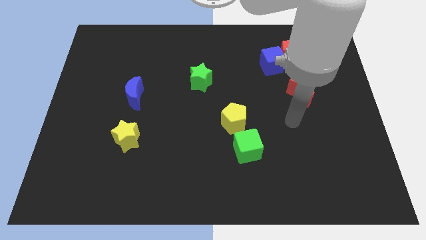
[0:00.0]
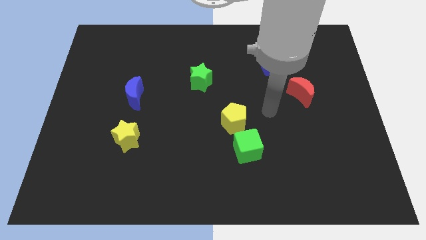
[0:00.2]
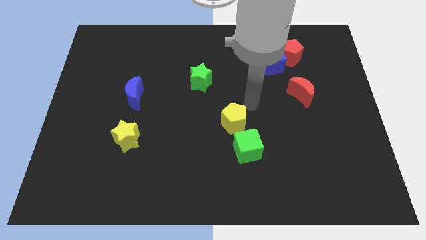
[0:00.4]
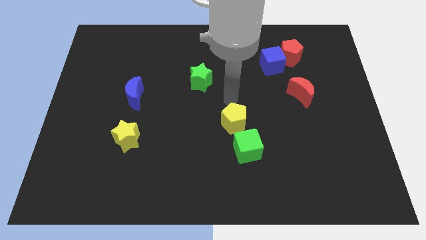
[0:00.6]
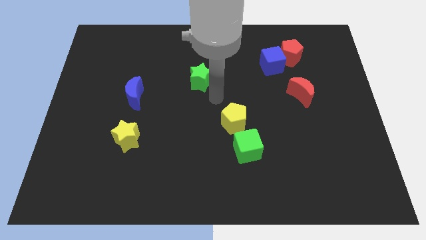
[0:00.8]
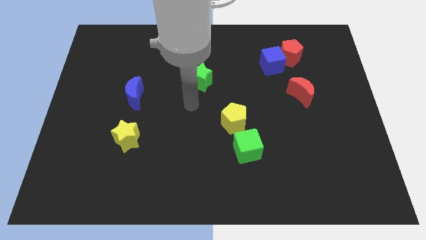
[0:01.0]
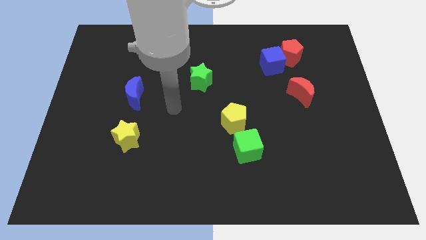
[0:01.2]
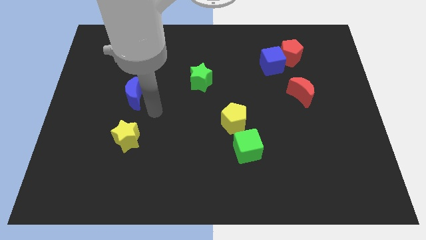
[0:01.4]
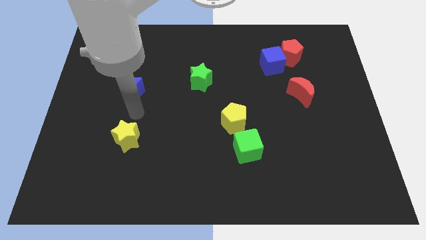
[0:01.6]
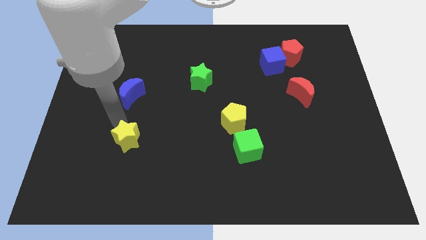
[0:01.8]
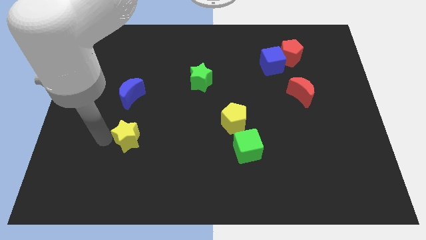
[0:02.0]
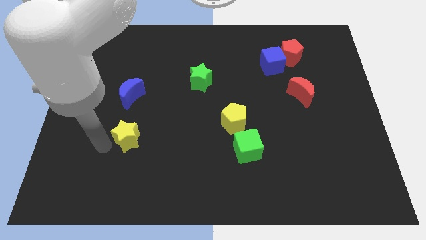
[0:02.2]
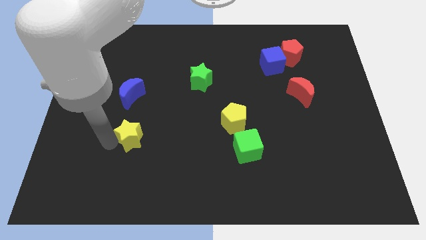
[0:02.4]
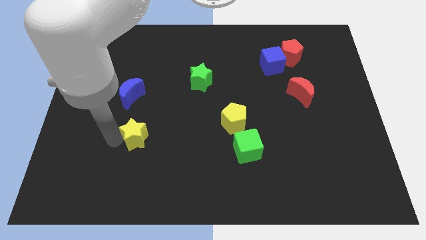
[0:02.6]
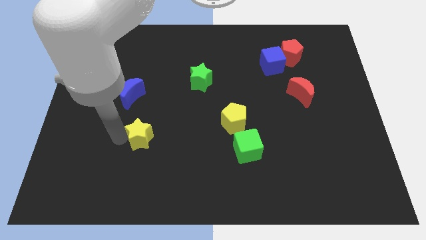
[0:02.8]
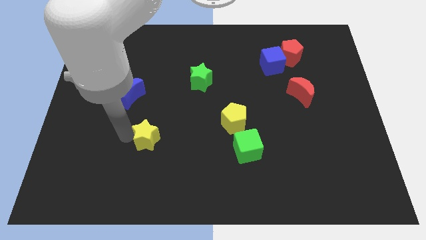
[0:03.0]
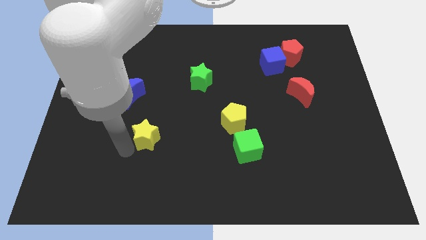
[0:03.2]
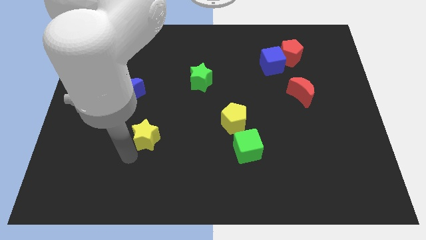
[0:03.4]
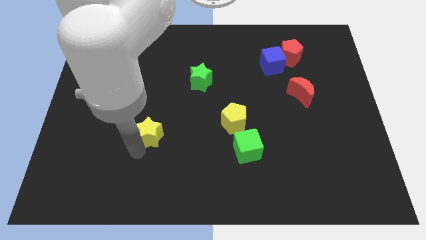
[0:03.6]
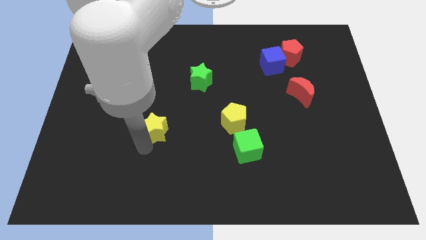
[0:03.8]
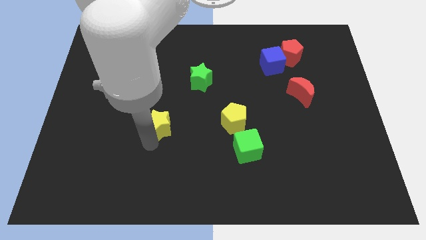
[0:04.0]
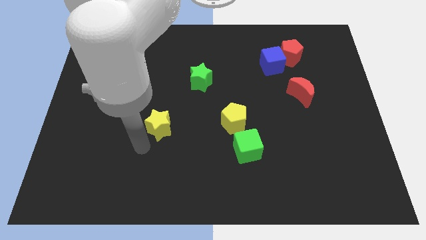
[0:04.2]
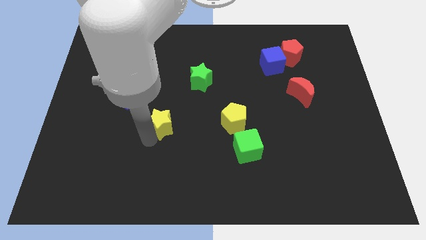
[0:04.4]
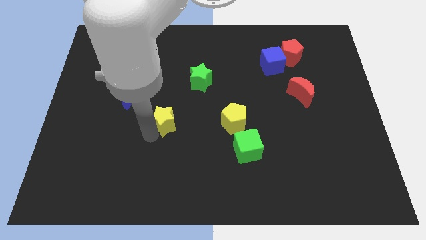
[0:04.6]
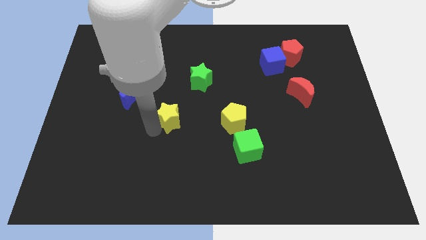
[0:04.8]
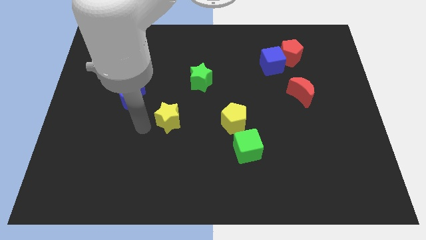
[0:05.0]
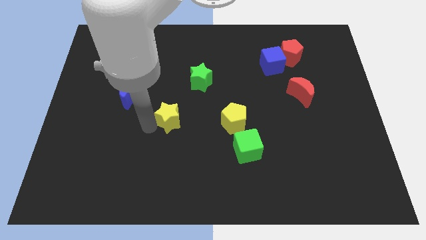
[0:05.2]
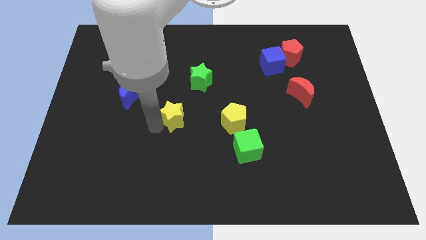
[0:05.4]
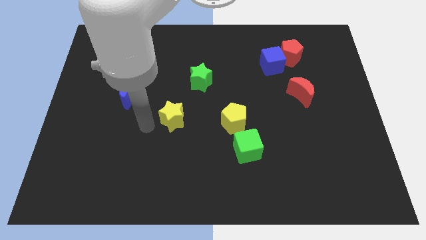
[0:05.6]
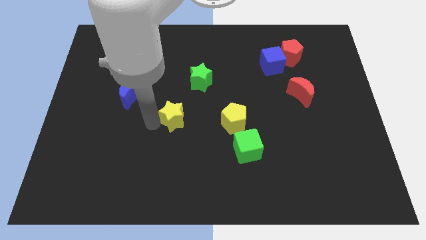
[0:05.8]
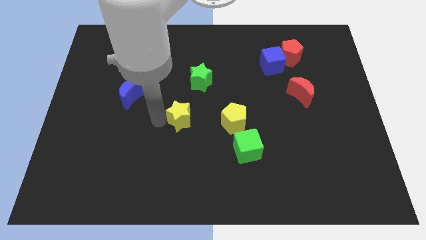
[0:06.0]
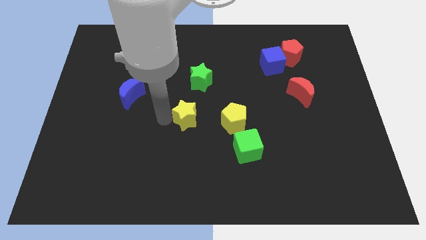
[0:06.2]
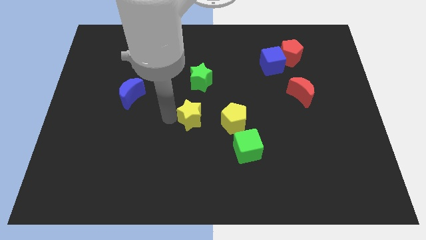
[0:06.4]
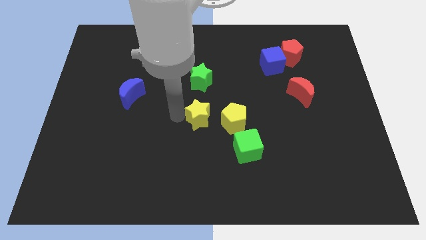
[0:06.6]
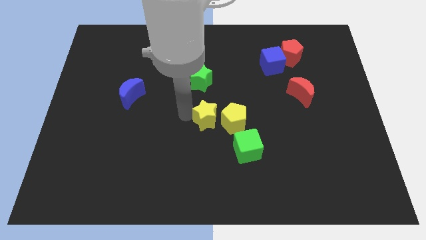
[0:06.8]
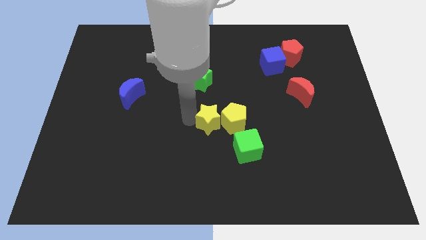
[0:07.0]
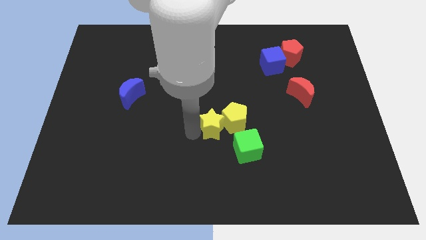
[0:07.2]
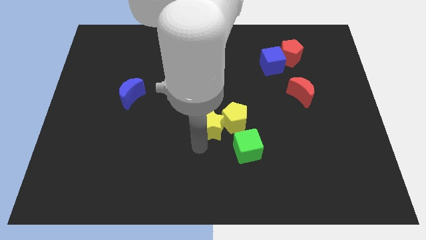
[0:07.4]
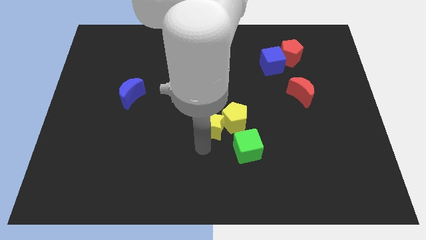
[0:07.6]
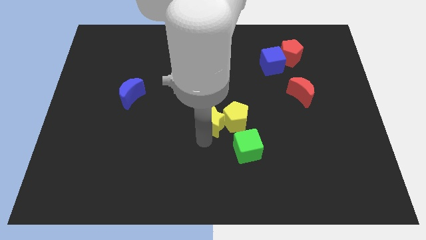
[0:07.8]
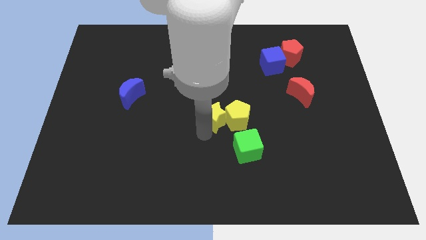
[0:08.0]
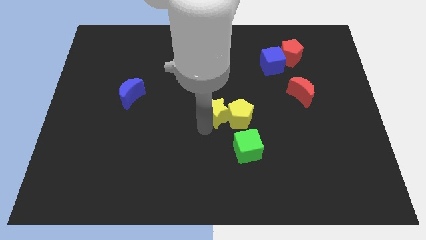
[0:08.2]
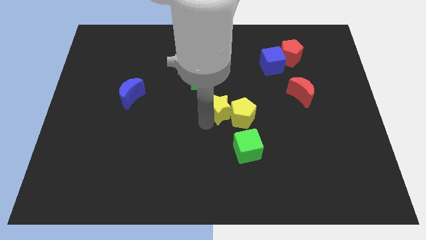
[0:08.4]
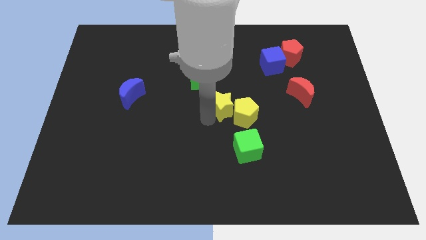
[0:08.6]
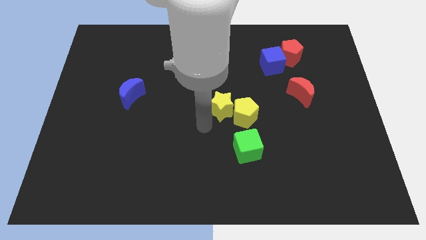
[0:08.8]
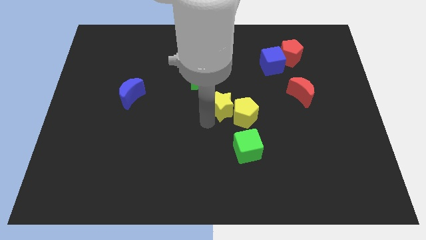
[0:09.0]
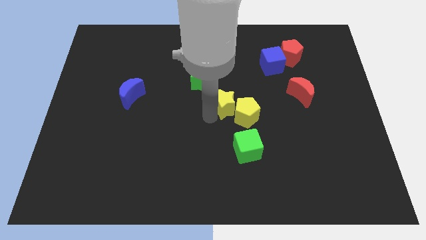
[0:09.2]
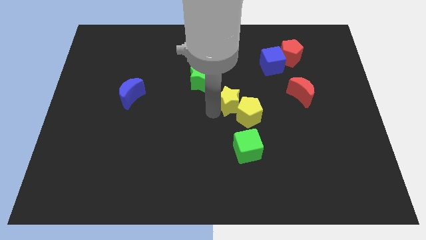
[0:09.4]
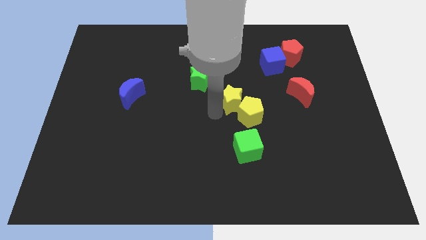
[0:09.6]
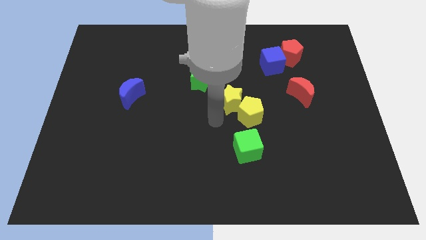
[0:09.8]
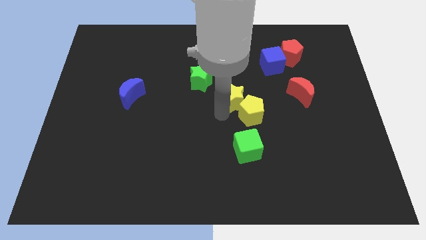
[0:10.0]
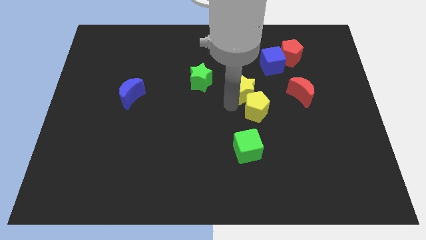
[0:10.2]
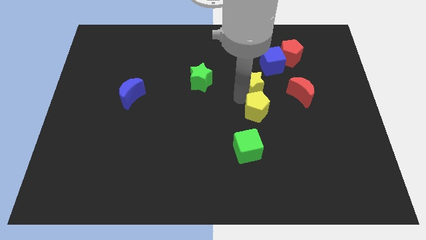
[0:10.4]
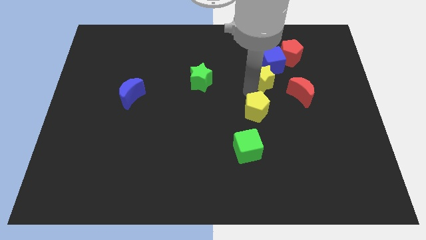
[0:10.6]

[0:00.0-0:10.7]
slide the yellow star to the bottom left of the red pentagon

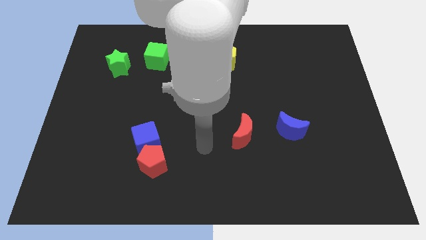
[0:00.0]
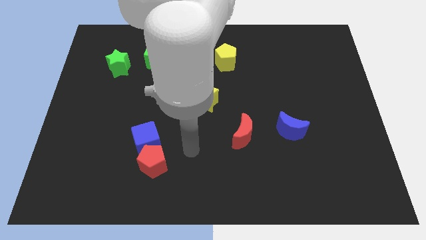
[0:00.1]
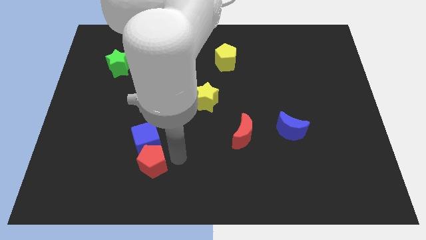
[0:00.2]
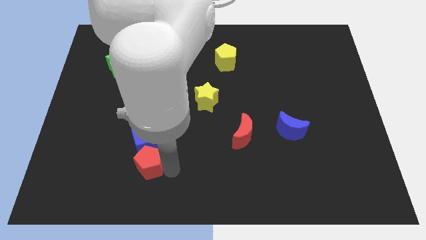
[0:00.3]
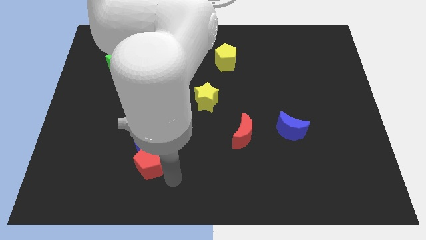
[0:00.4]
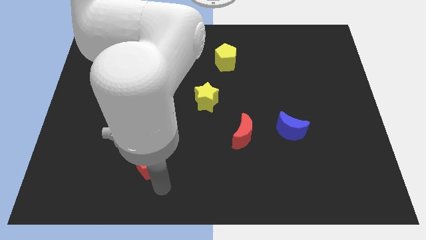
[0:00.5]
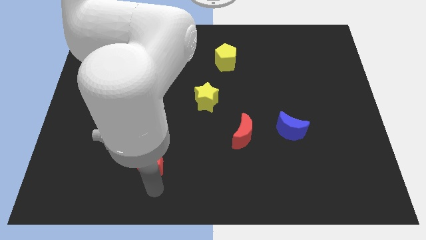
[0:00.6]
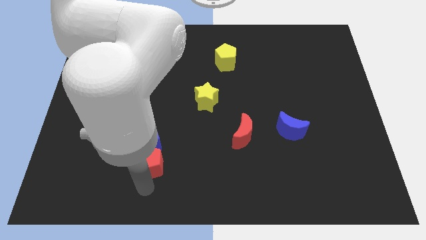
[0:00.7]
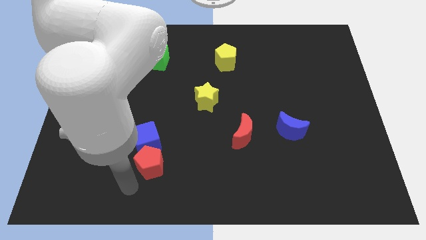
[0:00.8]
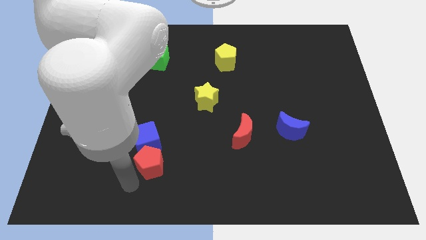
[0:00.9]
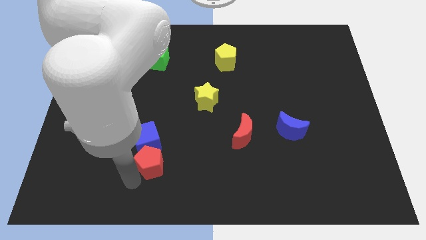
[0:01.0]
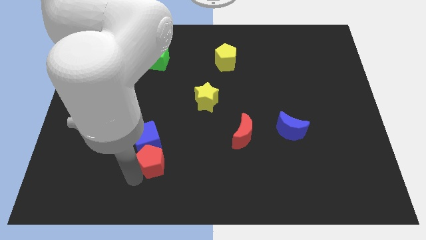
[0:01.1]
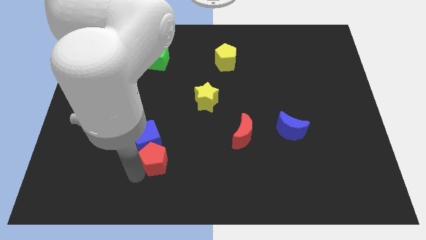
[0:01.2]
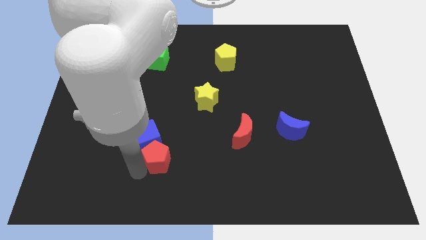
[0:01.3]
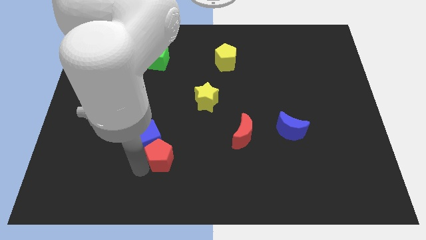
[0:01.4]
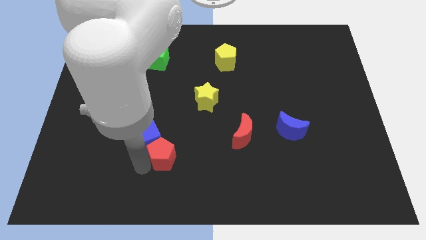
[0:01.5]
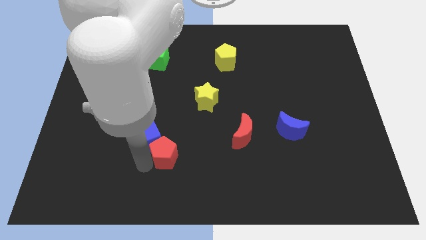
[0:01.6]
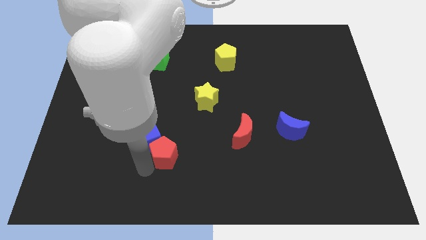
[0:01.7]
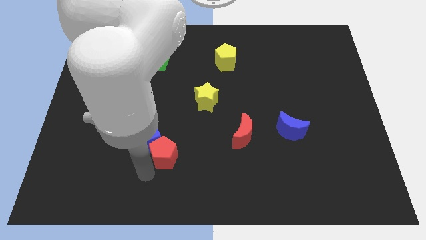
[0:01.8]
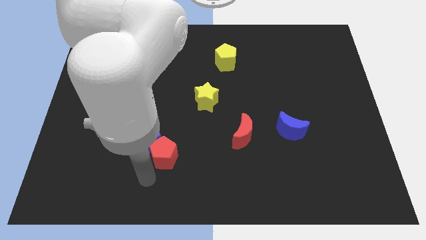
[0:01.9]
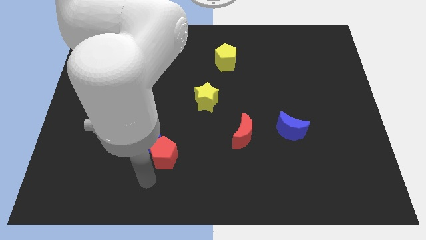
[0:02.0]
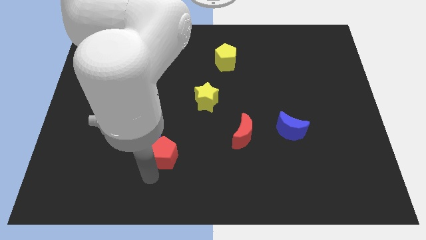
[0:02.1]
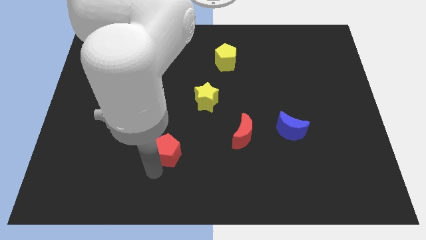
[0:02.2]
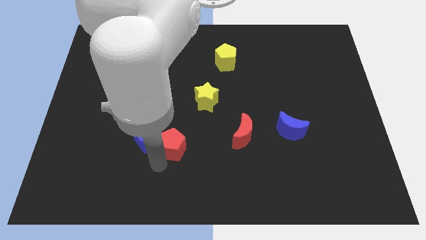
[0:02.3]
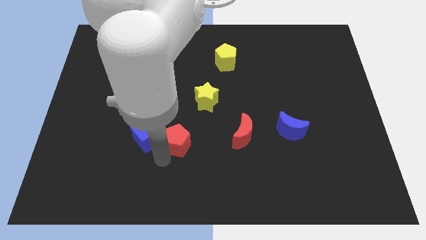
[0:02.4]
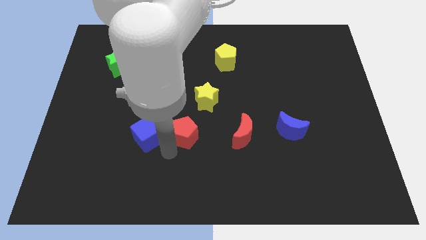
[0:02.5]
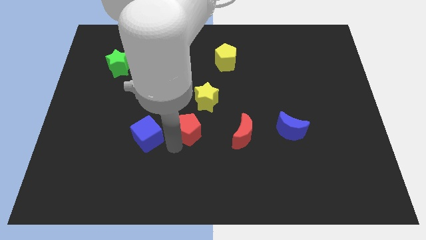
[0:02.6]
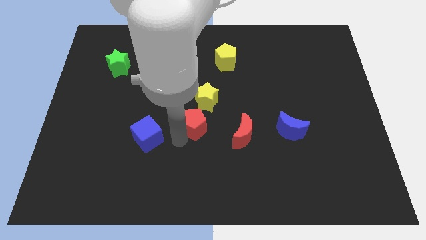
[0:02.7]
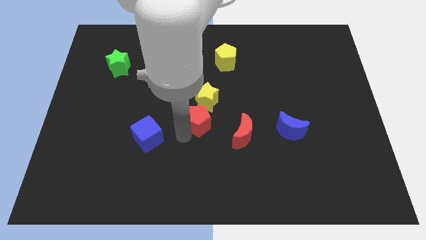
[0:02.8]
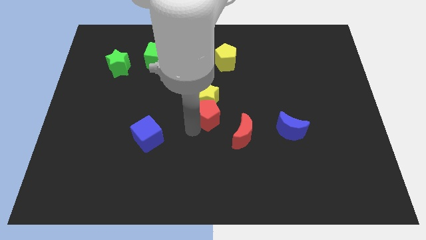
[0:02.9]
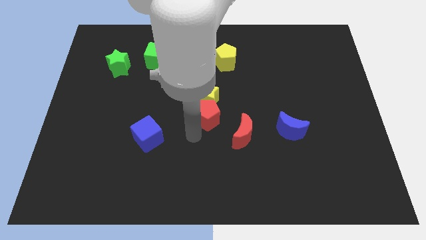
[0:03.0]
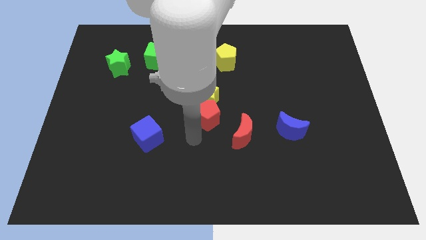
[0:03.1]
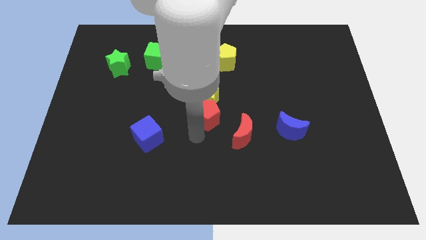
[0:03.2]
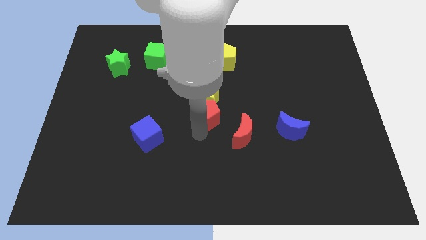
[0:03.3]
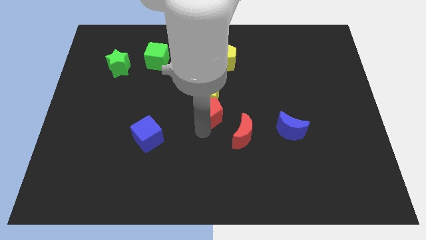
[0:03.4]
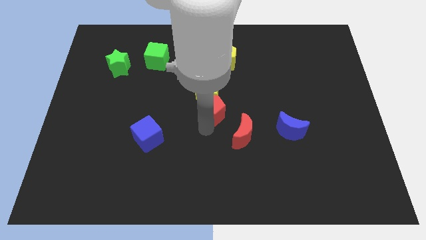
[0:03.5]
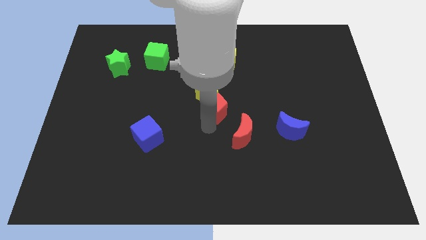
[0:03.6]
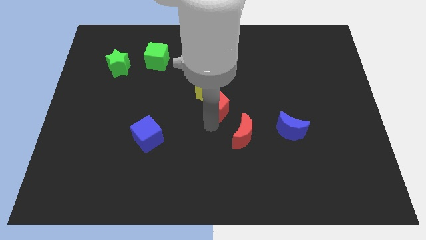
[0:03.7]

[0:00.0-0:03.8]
move the red pentagon to the bottom of the yellow pentagon
